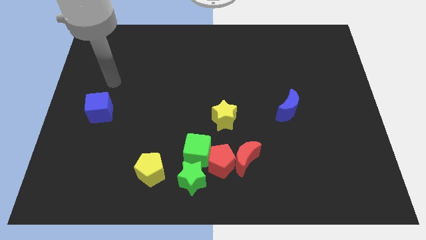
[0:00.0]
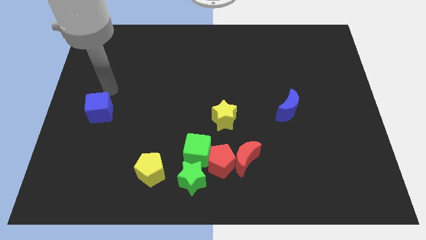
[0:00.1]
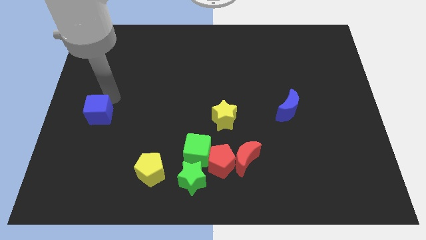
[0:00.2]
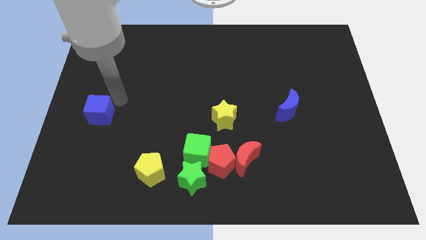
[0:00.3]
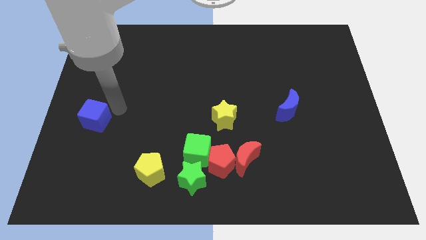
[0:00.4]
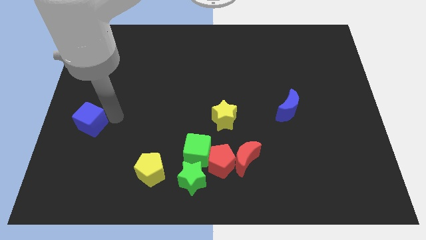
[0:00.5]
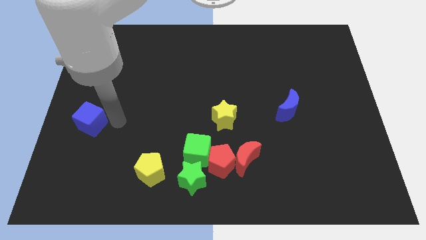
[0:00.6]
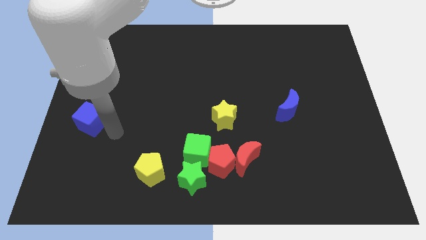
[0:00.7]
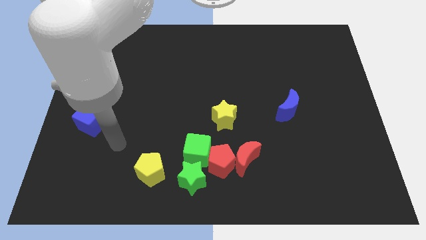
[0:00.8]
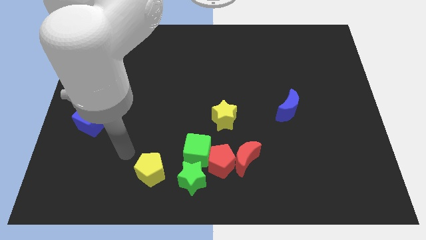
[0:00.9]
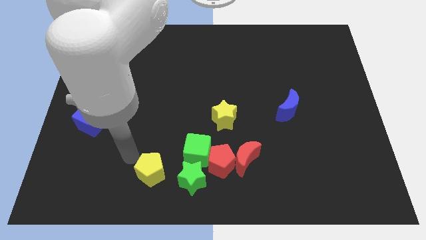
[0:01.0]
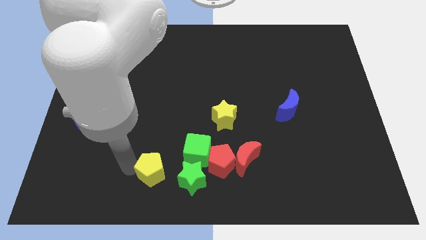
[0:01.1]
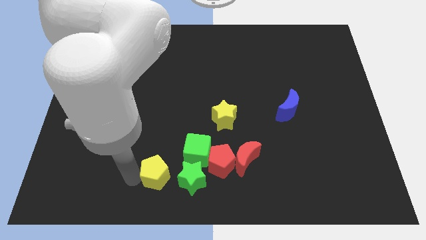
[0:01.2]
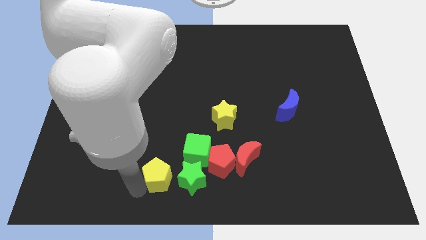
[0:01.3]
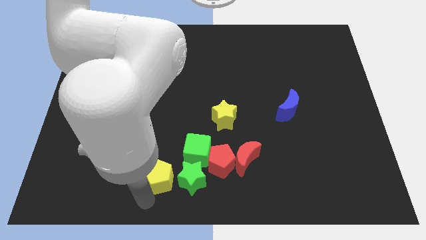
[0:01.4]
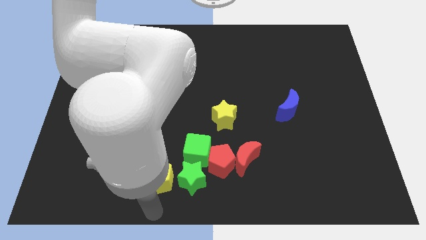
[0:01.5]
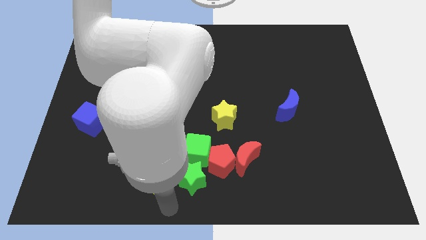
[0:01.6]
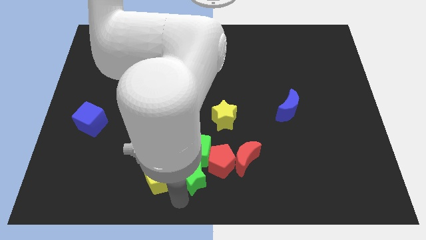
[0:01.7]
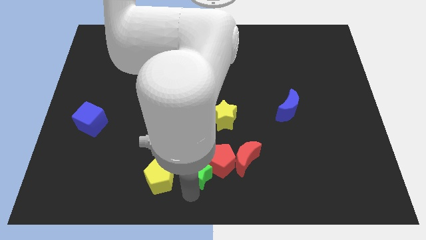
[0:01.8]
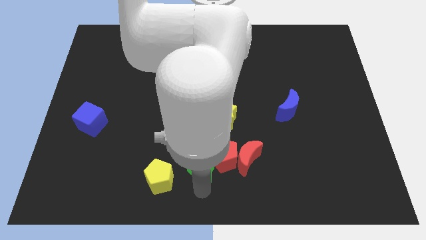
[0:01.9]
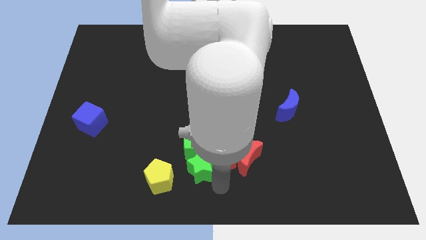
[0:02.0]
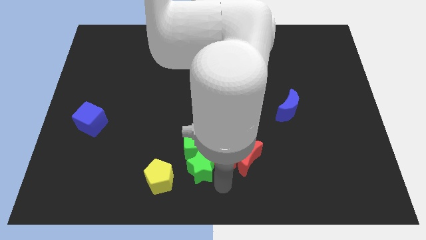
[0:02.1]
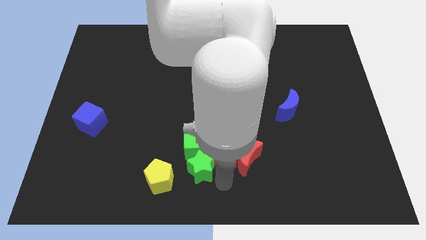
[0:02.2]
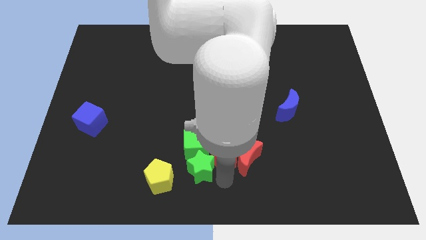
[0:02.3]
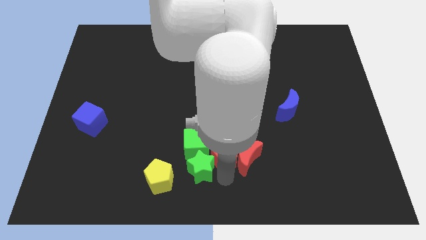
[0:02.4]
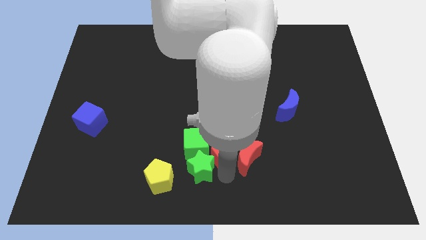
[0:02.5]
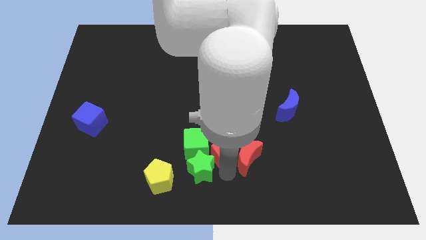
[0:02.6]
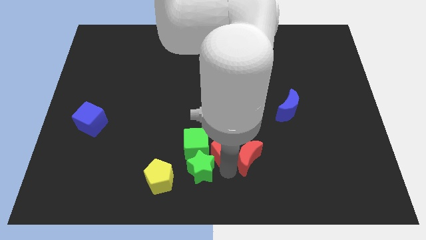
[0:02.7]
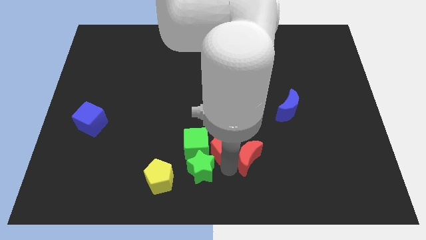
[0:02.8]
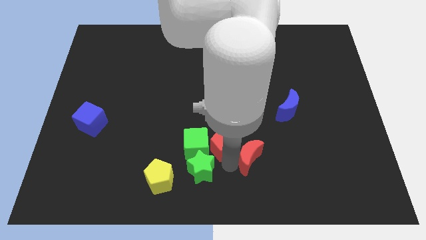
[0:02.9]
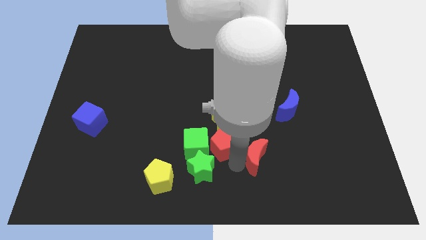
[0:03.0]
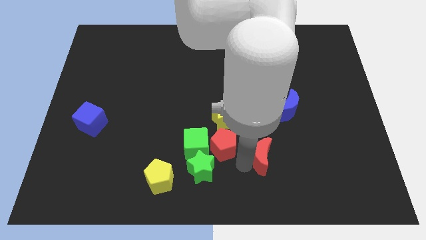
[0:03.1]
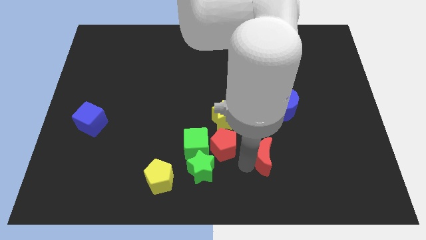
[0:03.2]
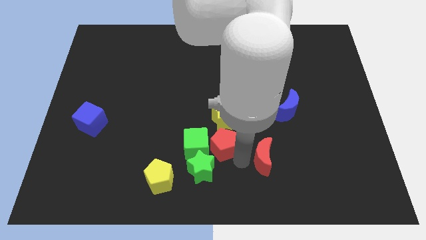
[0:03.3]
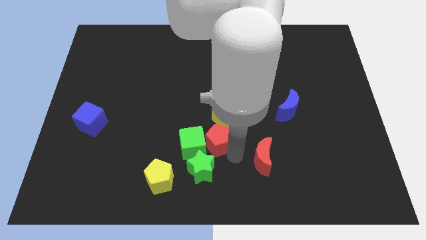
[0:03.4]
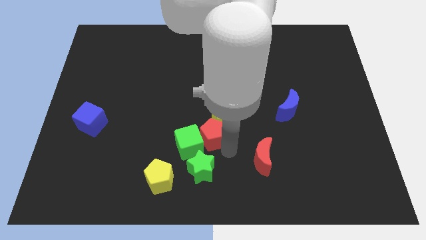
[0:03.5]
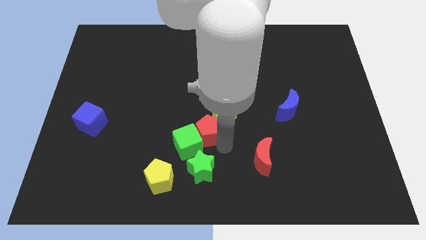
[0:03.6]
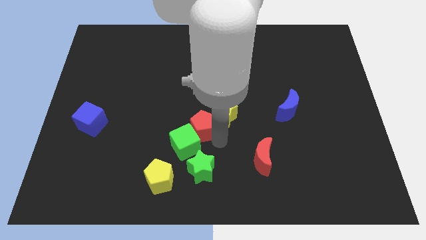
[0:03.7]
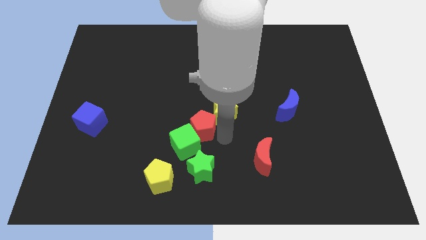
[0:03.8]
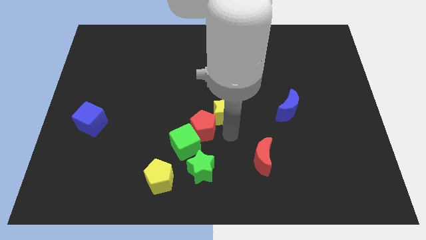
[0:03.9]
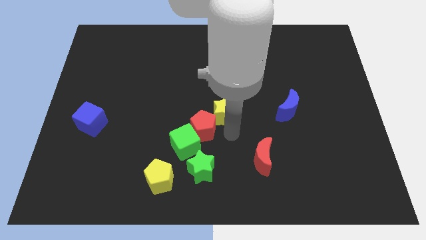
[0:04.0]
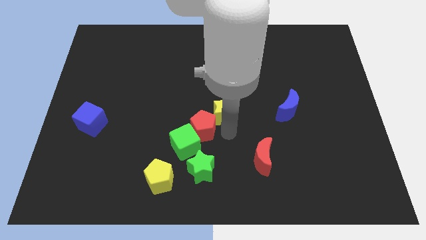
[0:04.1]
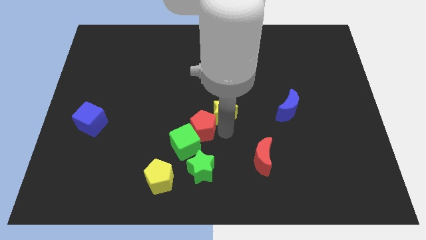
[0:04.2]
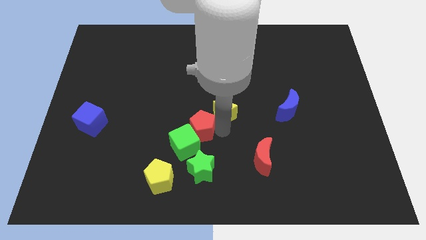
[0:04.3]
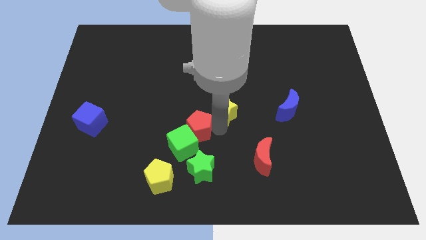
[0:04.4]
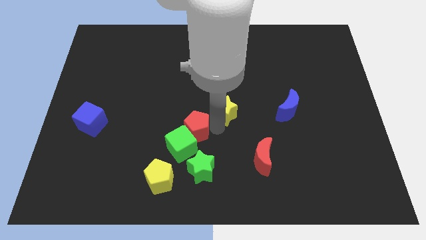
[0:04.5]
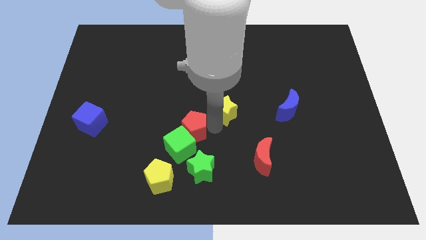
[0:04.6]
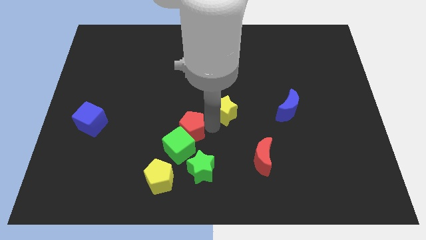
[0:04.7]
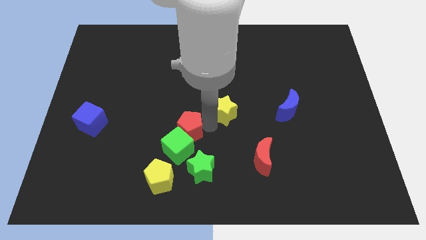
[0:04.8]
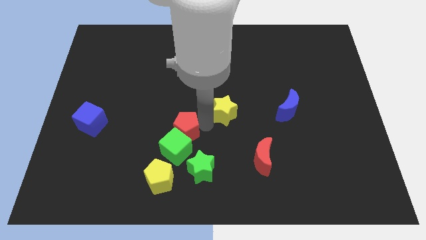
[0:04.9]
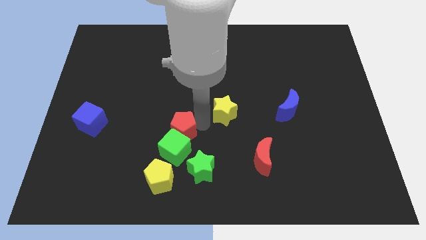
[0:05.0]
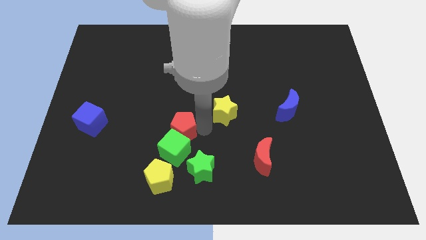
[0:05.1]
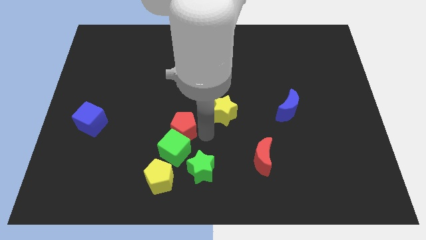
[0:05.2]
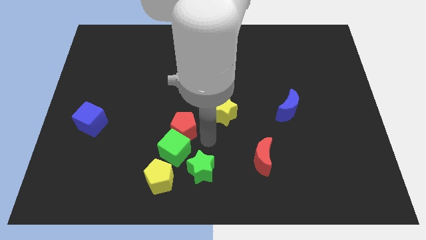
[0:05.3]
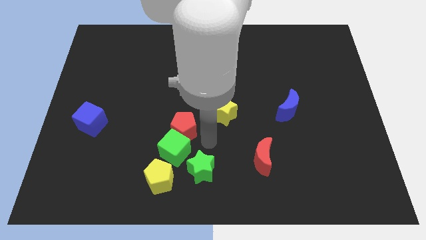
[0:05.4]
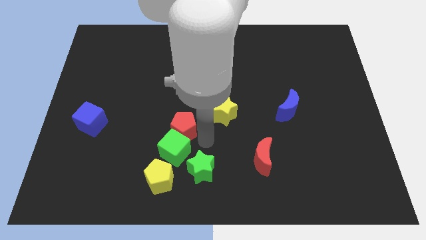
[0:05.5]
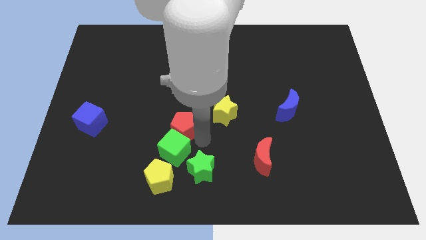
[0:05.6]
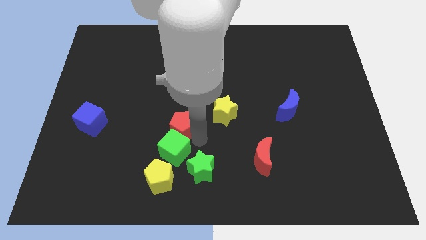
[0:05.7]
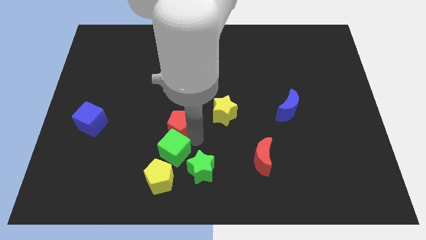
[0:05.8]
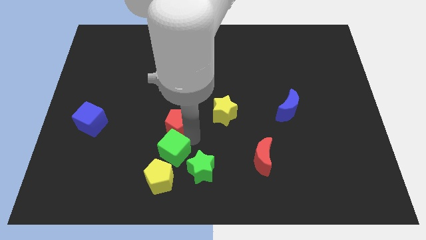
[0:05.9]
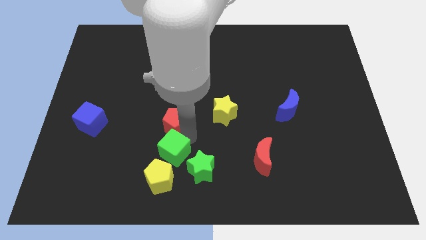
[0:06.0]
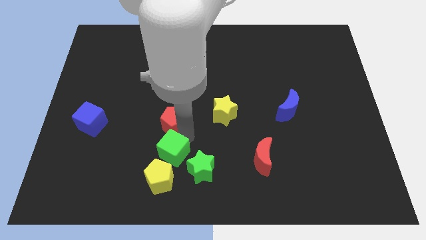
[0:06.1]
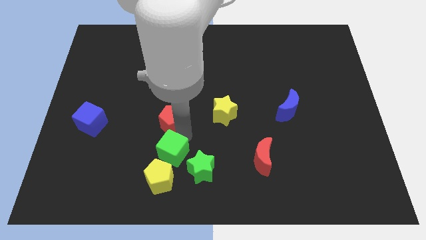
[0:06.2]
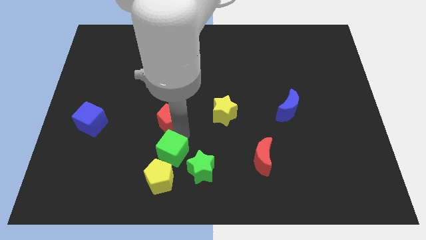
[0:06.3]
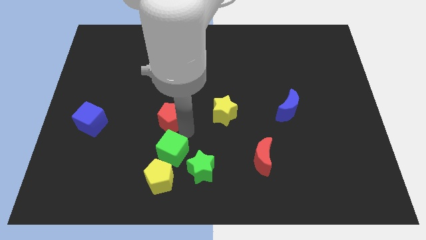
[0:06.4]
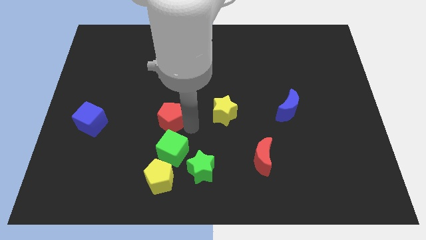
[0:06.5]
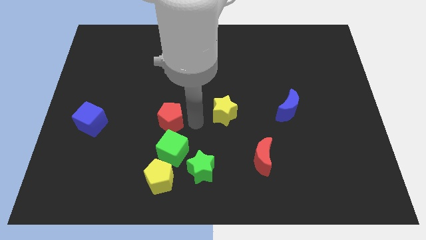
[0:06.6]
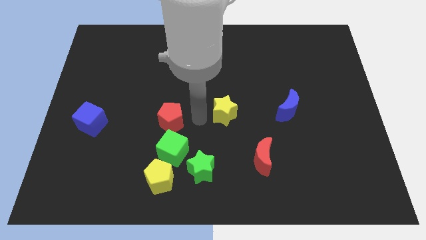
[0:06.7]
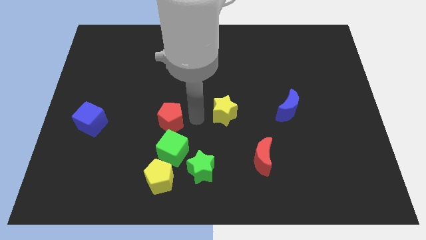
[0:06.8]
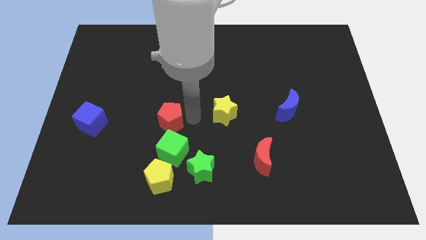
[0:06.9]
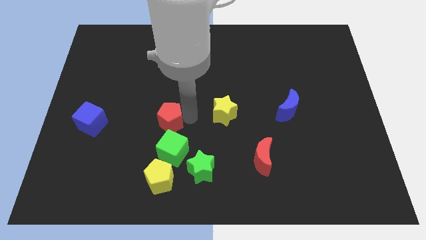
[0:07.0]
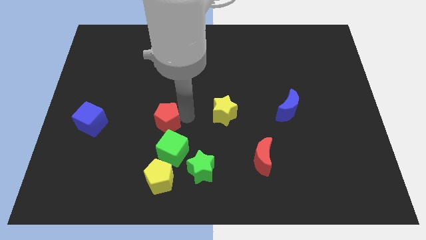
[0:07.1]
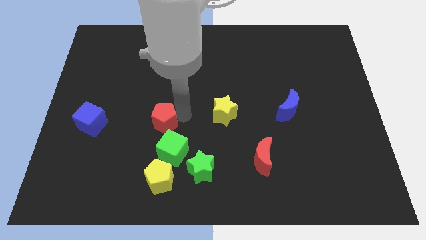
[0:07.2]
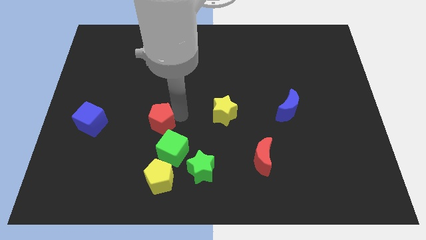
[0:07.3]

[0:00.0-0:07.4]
move the red pentagon right of the blue cube
